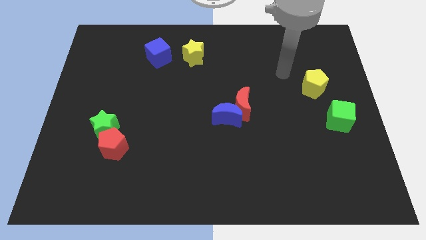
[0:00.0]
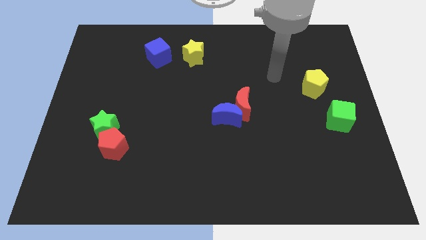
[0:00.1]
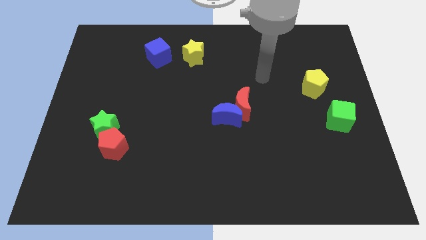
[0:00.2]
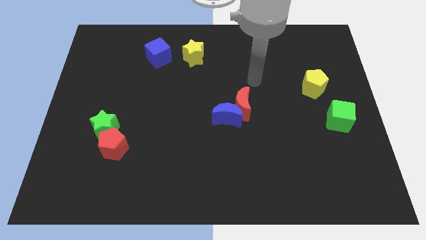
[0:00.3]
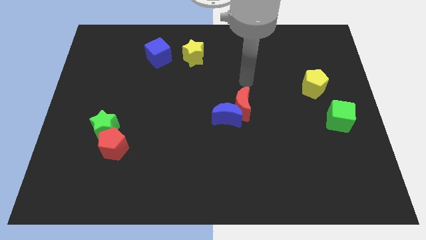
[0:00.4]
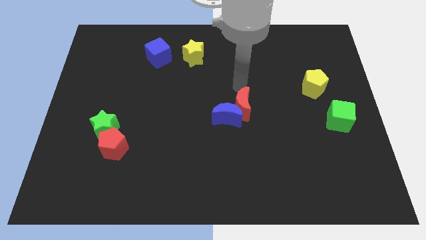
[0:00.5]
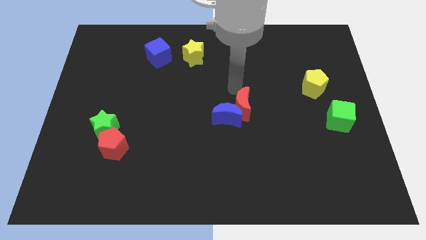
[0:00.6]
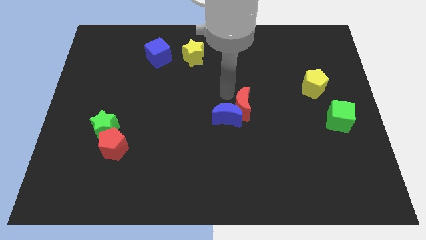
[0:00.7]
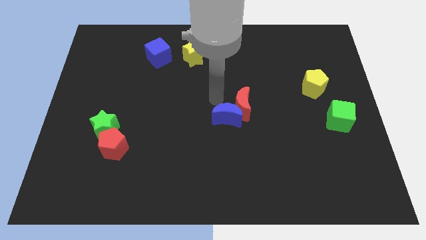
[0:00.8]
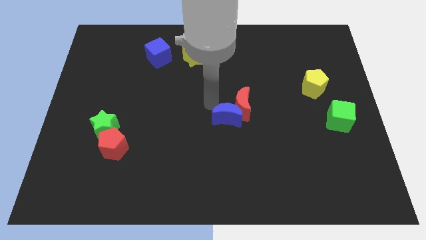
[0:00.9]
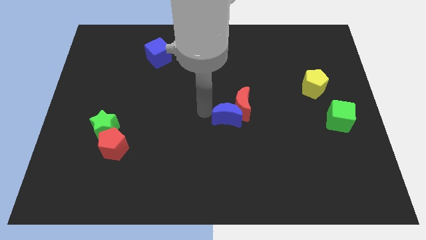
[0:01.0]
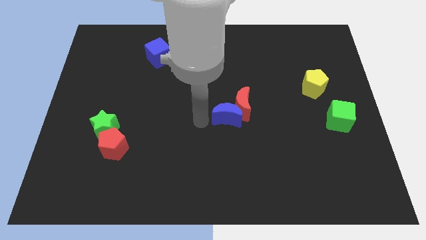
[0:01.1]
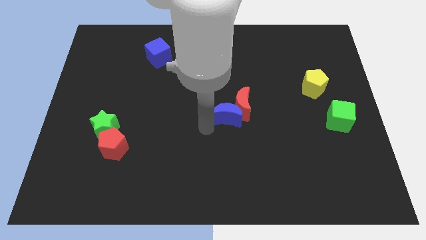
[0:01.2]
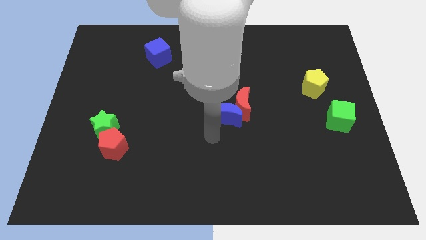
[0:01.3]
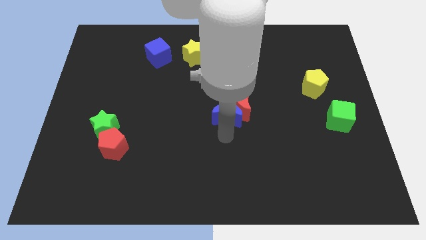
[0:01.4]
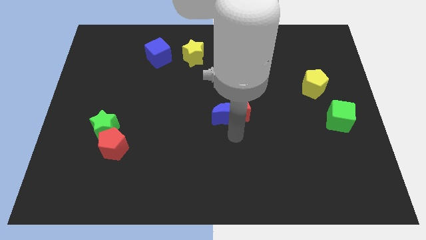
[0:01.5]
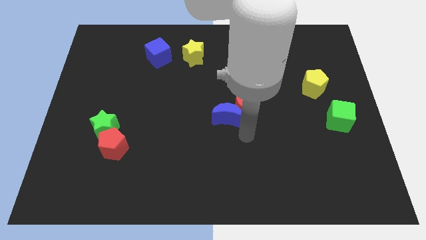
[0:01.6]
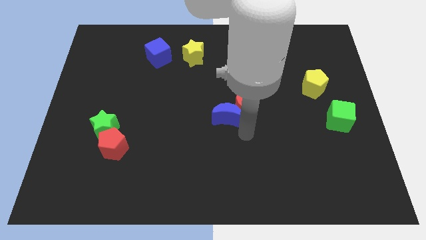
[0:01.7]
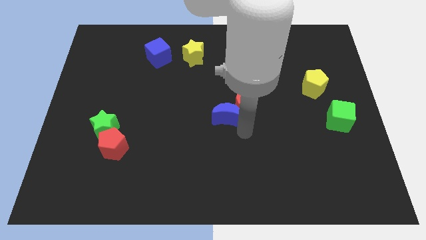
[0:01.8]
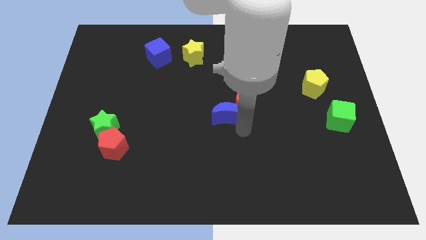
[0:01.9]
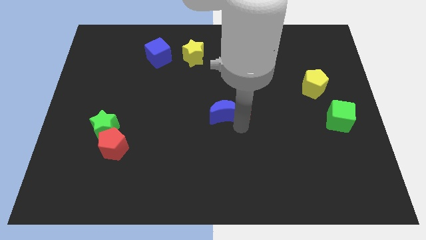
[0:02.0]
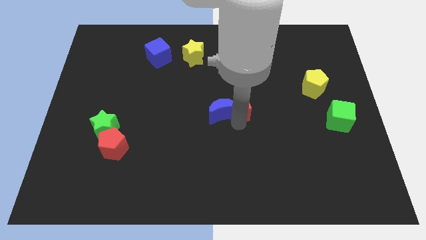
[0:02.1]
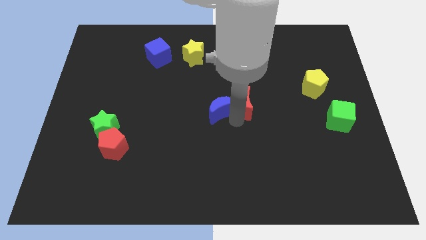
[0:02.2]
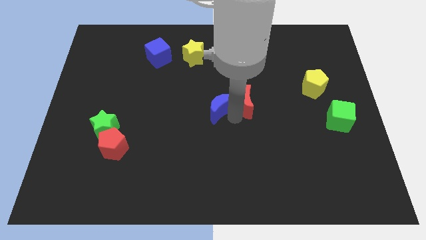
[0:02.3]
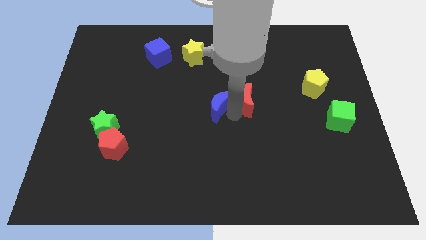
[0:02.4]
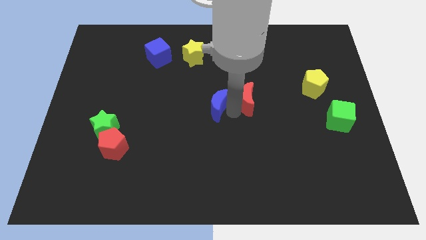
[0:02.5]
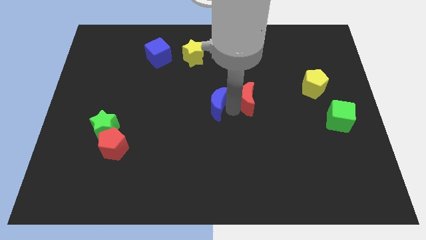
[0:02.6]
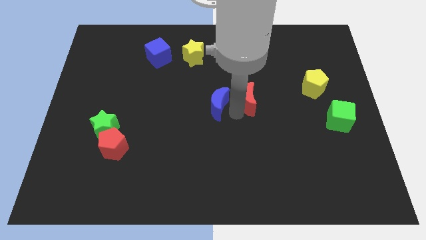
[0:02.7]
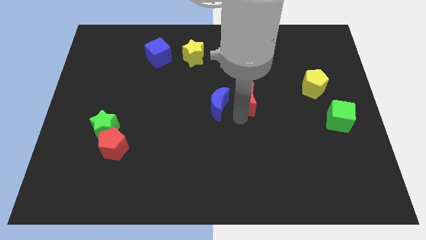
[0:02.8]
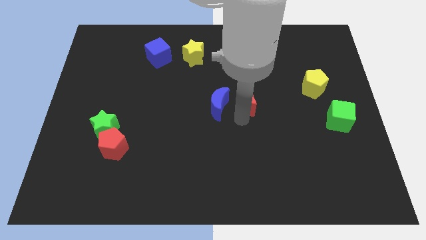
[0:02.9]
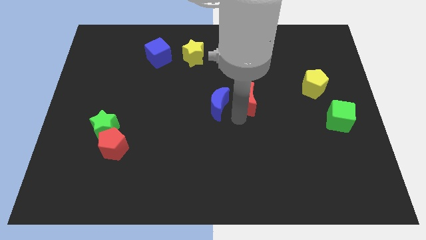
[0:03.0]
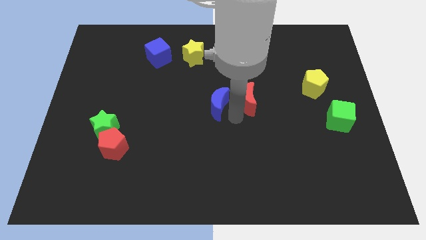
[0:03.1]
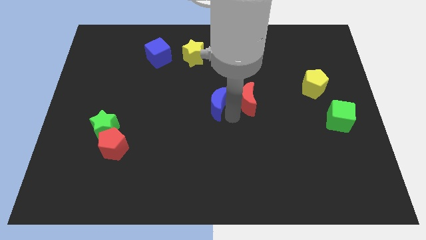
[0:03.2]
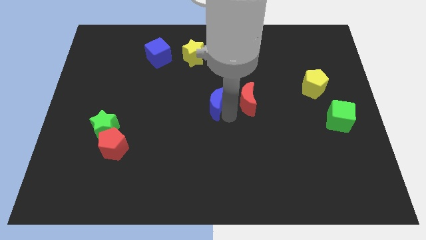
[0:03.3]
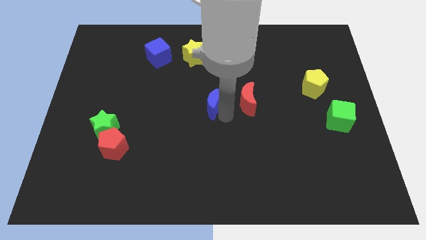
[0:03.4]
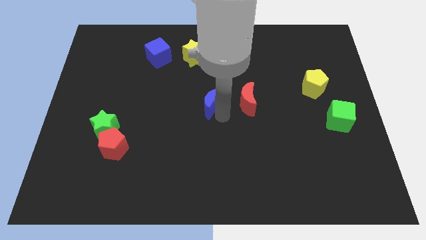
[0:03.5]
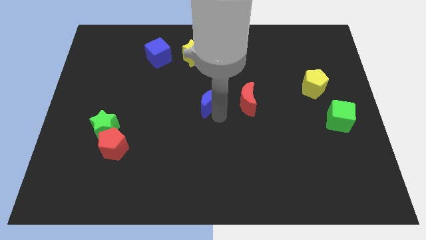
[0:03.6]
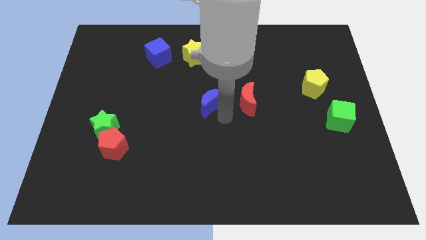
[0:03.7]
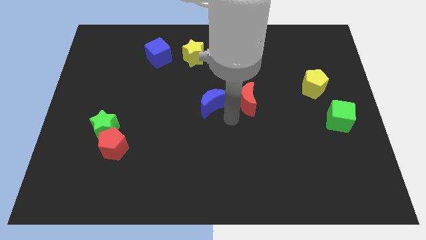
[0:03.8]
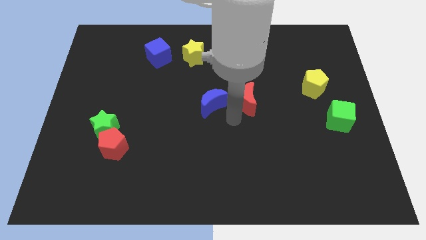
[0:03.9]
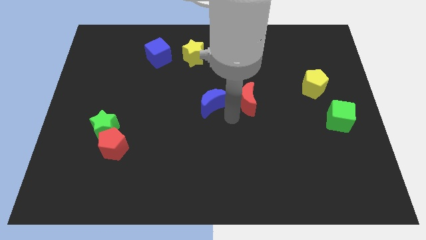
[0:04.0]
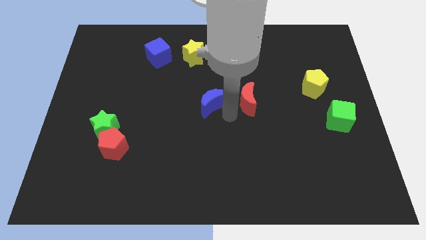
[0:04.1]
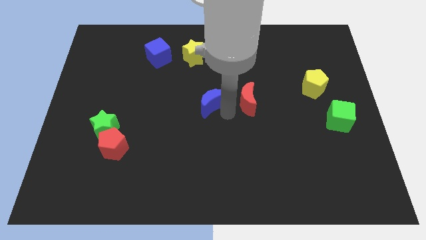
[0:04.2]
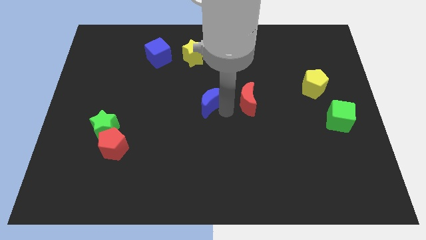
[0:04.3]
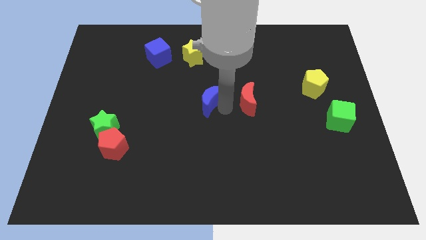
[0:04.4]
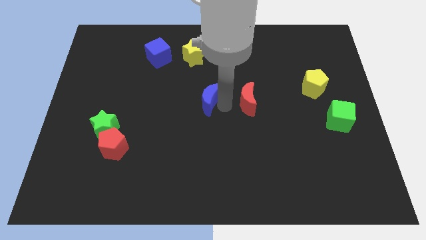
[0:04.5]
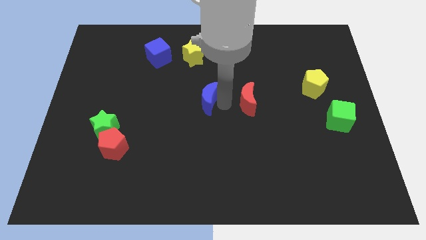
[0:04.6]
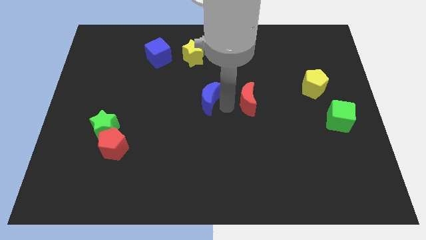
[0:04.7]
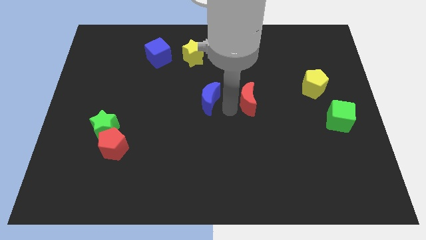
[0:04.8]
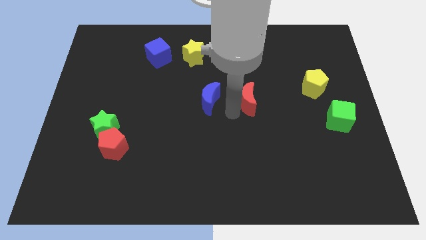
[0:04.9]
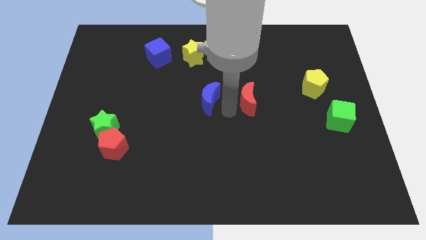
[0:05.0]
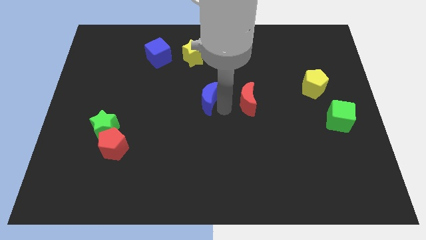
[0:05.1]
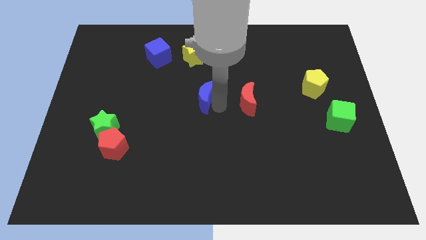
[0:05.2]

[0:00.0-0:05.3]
move the blue moon a little upwards and then left

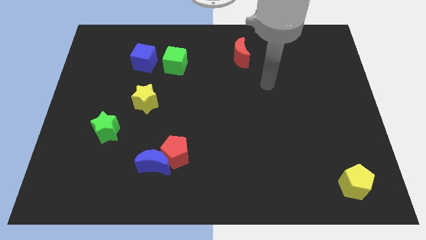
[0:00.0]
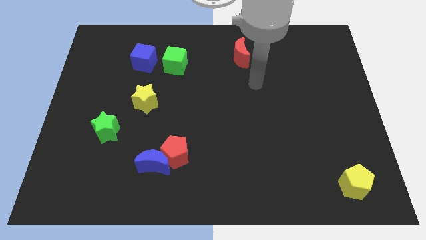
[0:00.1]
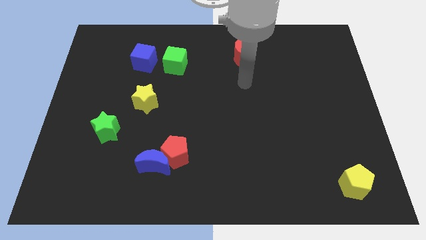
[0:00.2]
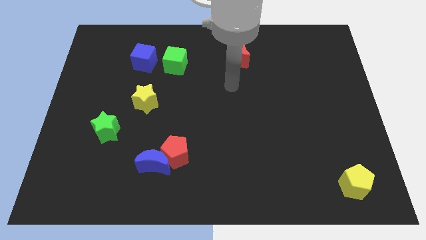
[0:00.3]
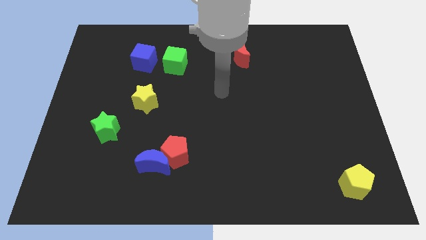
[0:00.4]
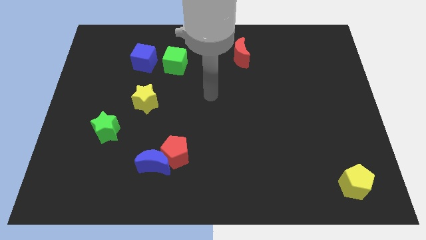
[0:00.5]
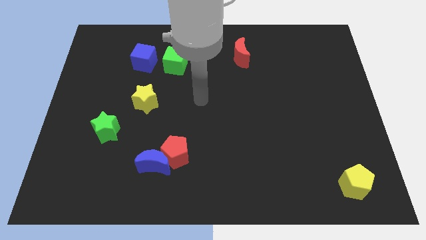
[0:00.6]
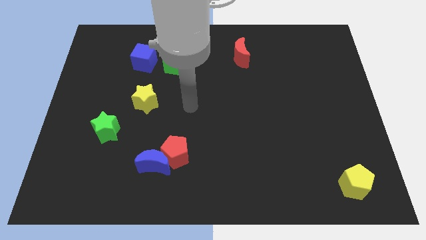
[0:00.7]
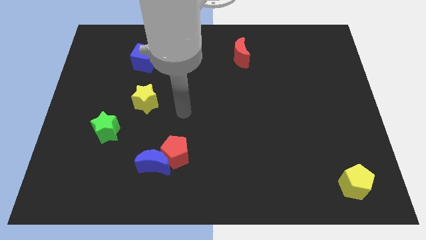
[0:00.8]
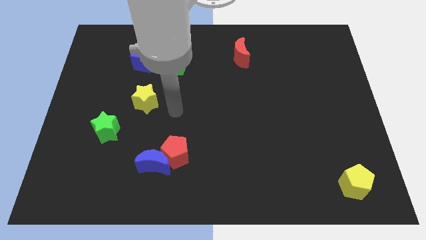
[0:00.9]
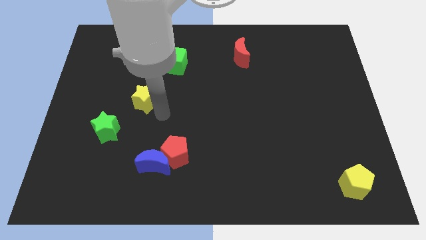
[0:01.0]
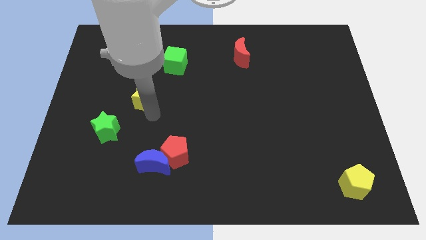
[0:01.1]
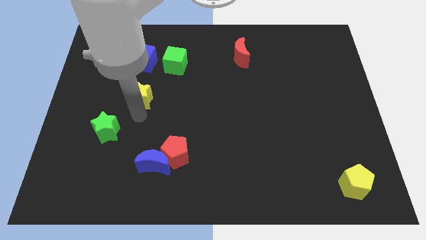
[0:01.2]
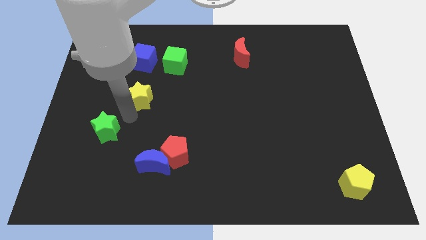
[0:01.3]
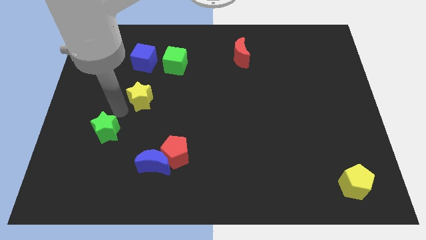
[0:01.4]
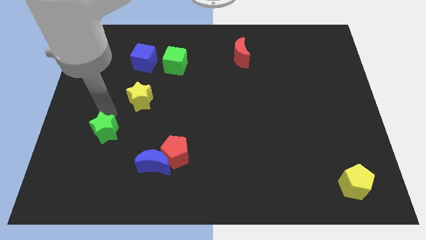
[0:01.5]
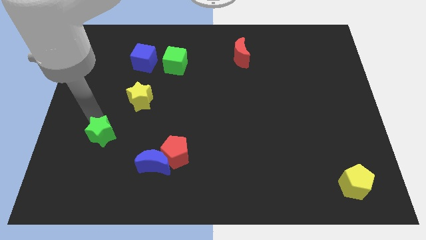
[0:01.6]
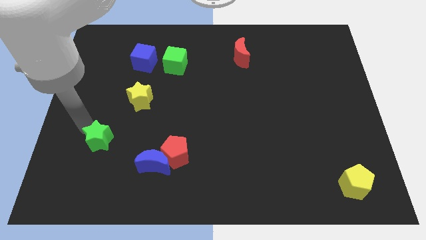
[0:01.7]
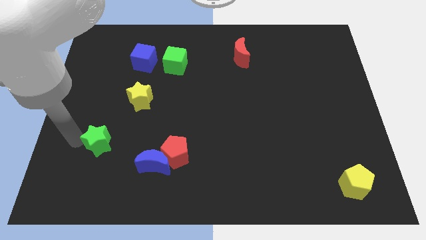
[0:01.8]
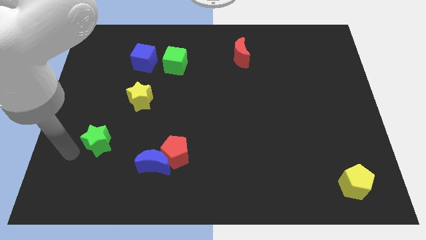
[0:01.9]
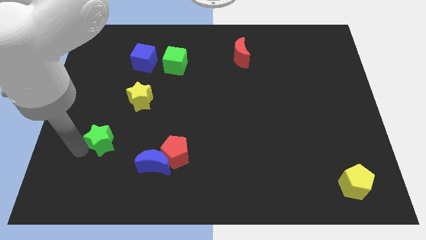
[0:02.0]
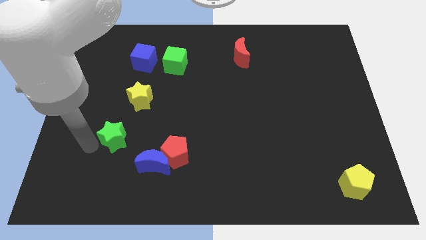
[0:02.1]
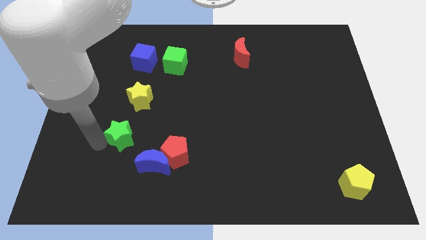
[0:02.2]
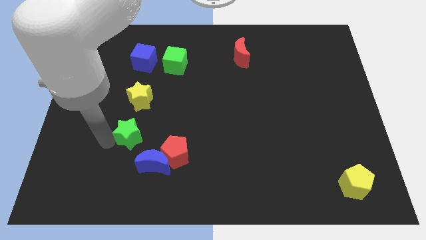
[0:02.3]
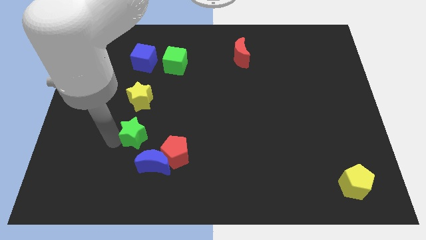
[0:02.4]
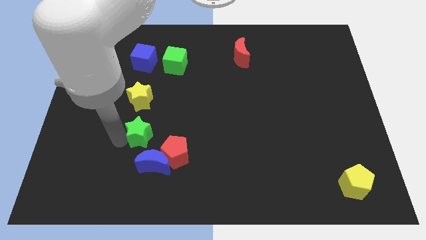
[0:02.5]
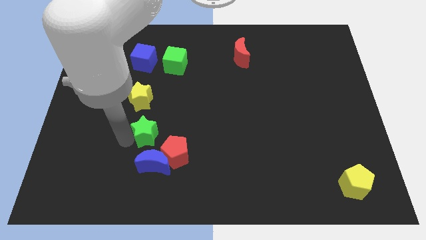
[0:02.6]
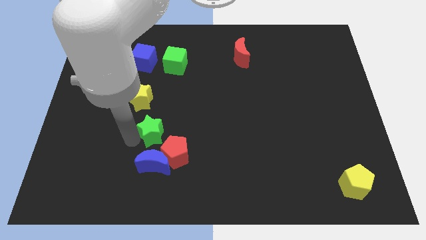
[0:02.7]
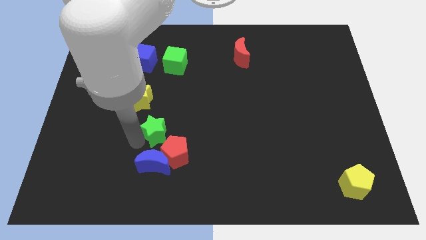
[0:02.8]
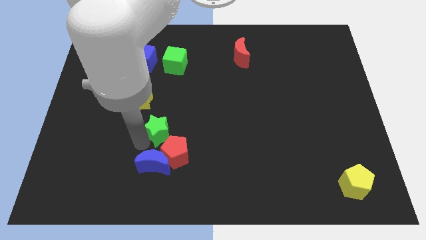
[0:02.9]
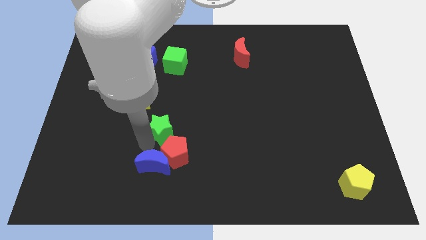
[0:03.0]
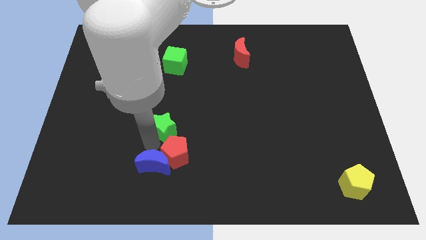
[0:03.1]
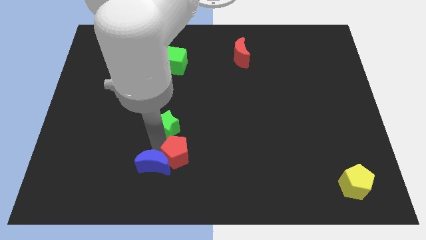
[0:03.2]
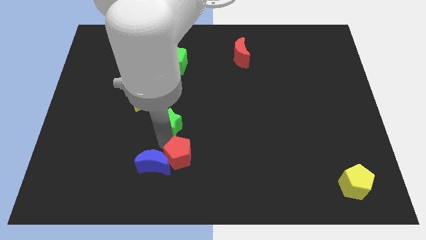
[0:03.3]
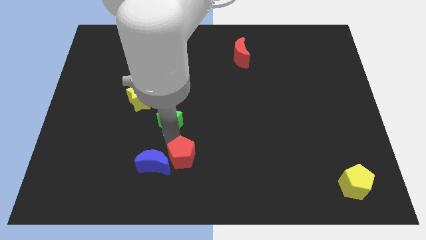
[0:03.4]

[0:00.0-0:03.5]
slightly move the green star diagonally up and to the right
